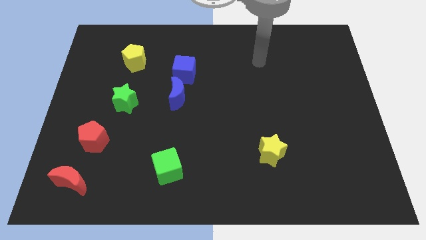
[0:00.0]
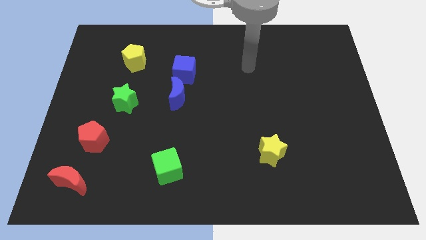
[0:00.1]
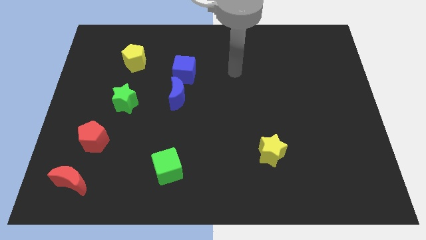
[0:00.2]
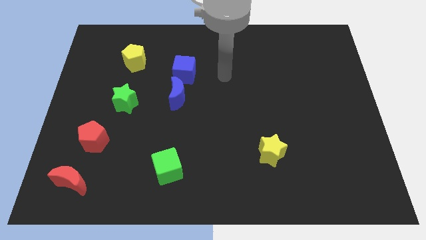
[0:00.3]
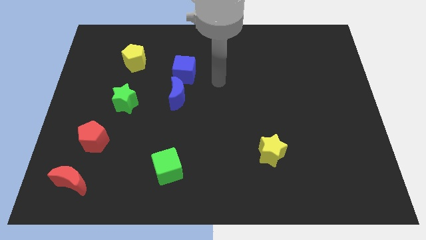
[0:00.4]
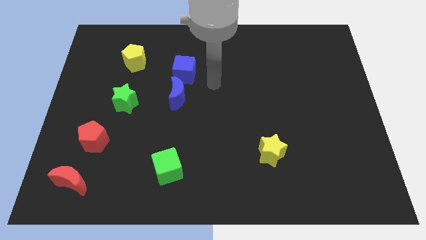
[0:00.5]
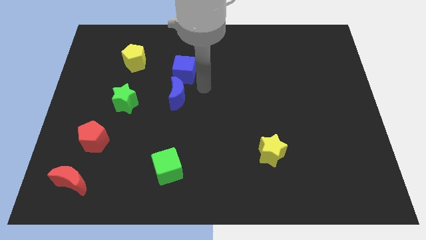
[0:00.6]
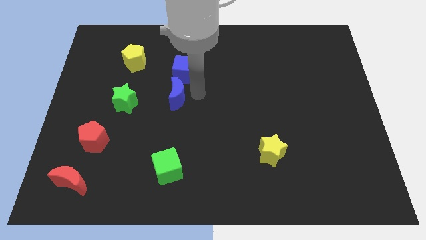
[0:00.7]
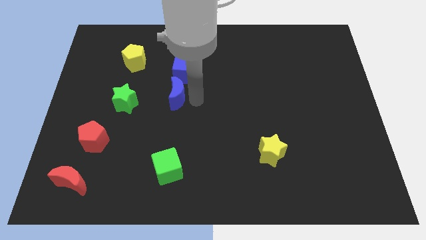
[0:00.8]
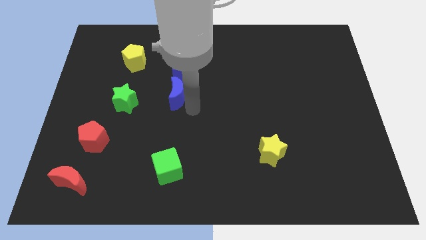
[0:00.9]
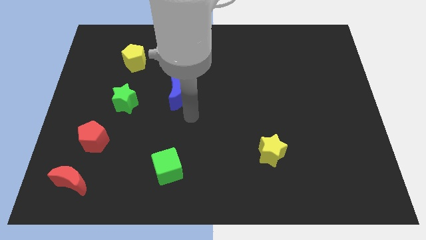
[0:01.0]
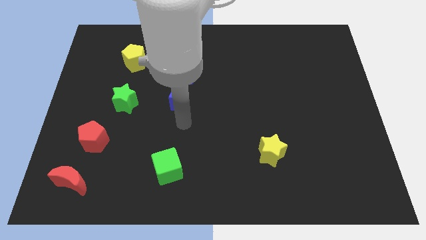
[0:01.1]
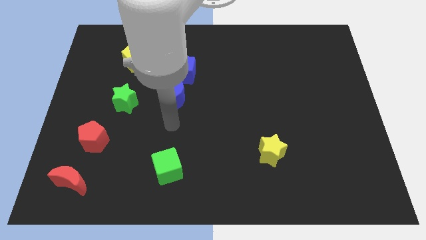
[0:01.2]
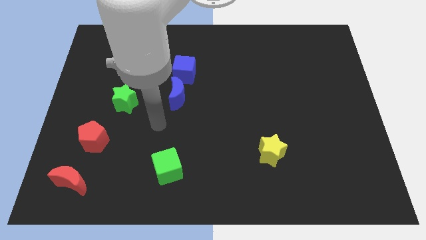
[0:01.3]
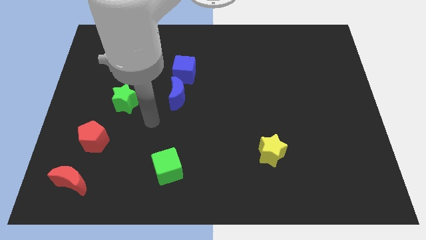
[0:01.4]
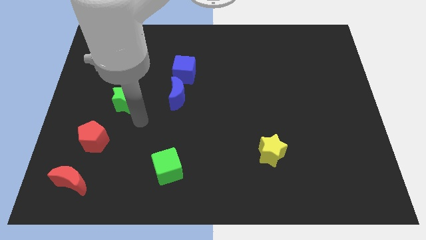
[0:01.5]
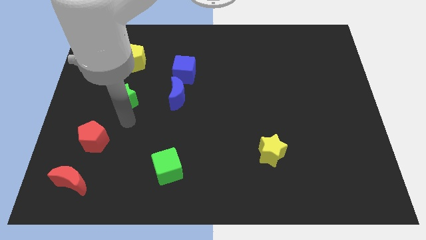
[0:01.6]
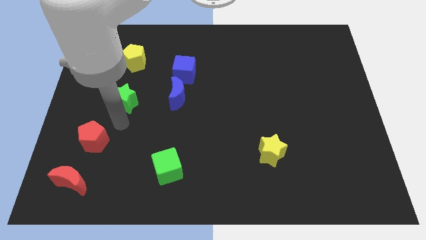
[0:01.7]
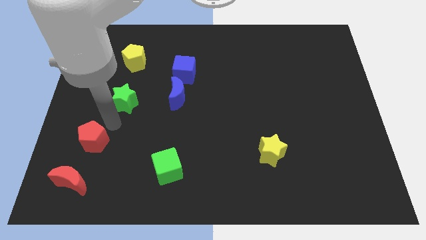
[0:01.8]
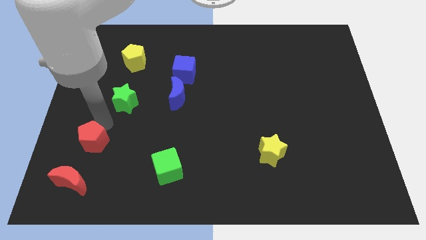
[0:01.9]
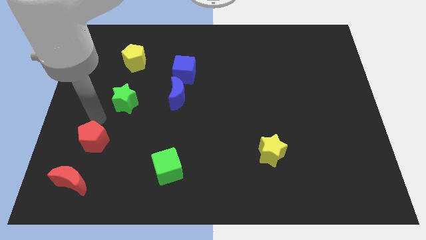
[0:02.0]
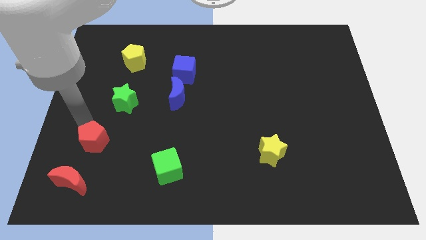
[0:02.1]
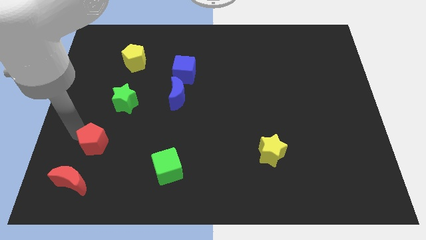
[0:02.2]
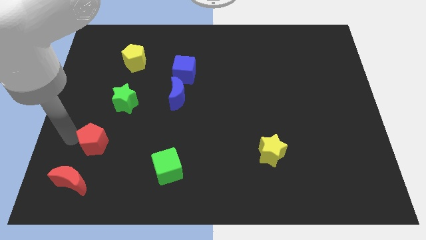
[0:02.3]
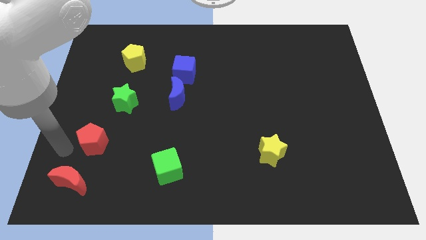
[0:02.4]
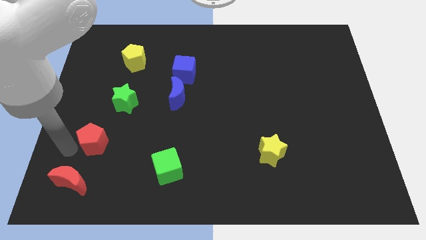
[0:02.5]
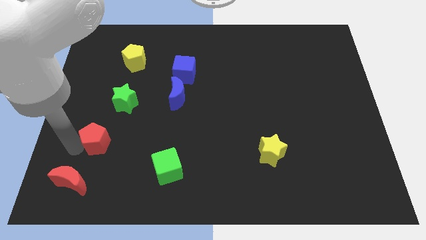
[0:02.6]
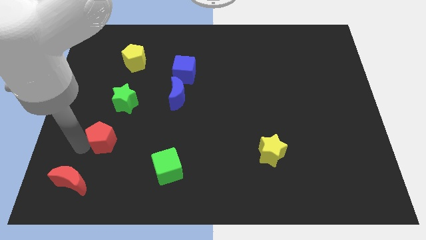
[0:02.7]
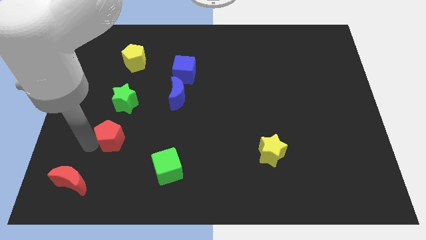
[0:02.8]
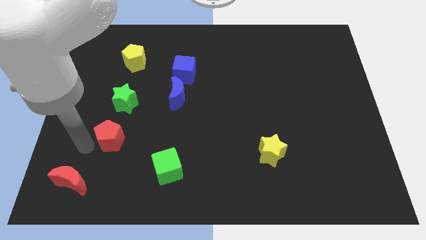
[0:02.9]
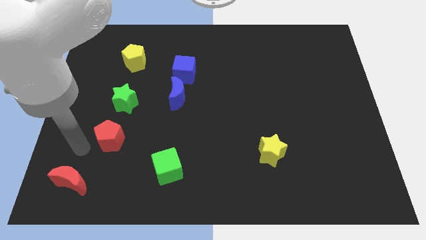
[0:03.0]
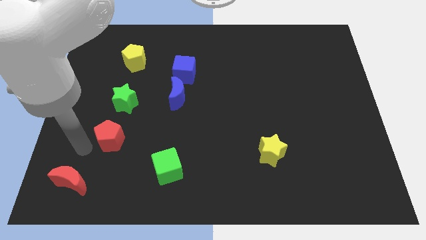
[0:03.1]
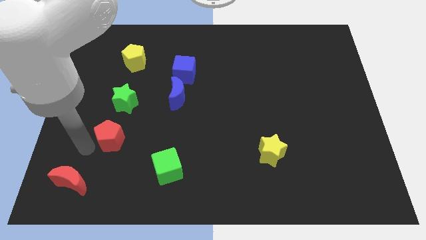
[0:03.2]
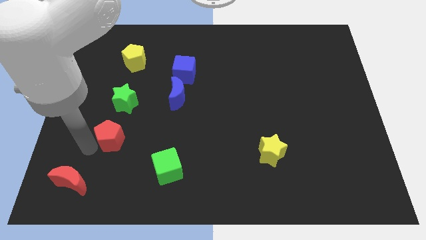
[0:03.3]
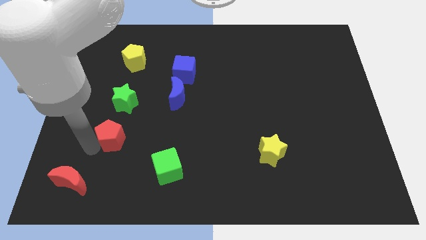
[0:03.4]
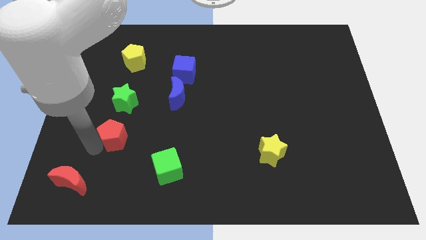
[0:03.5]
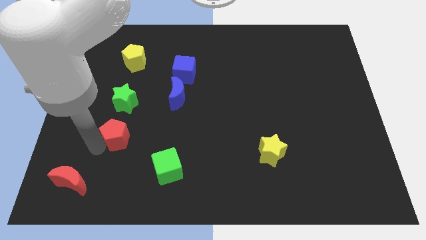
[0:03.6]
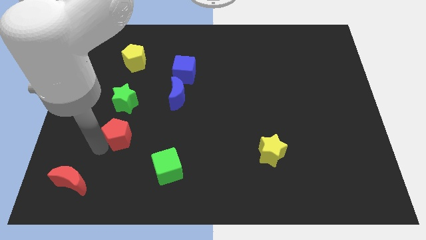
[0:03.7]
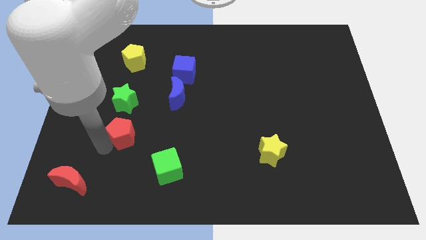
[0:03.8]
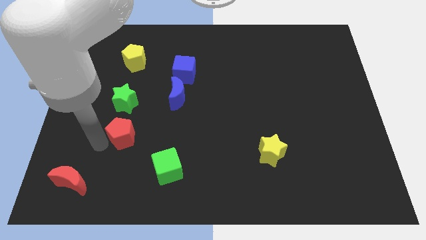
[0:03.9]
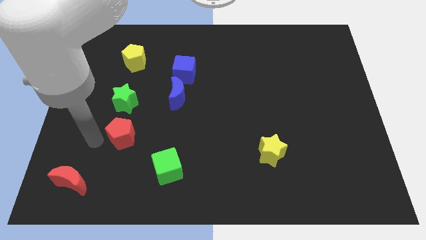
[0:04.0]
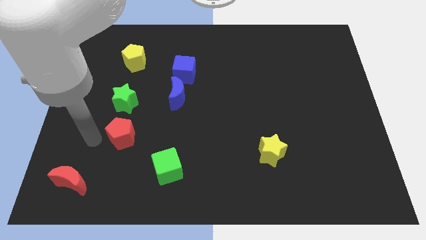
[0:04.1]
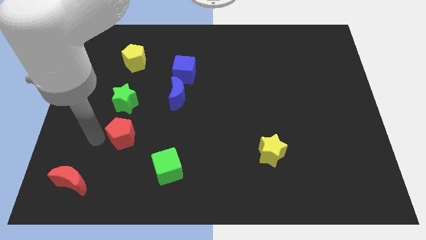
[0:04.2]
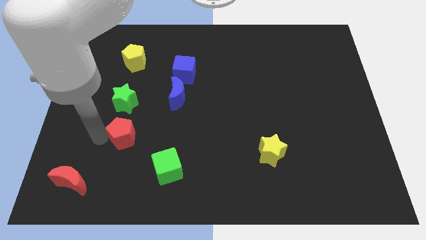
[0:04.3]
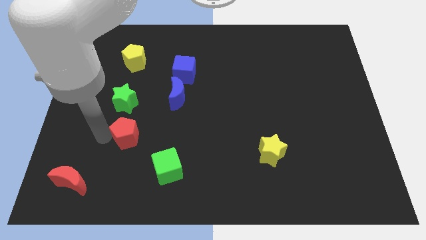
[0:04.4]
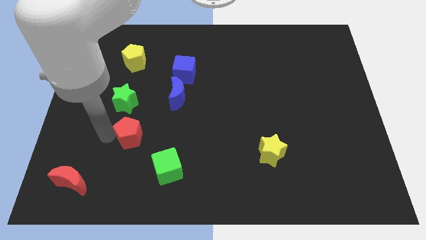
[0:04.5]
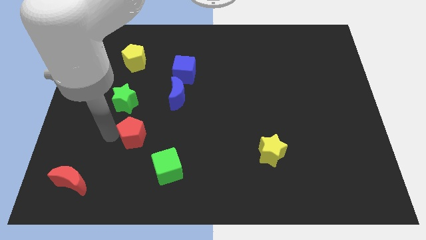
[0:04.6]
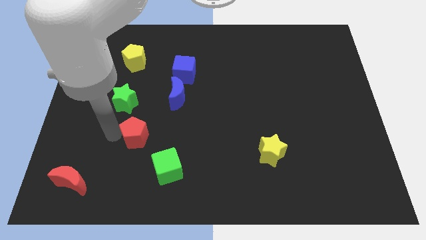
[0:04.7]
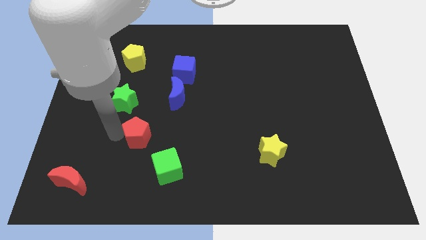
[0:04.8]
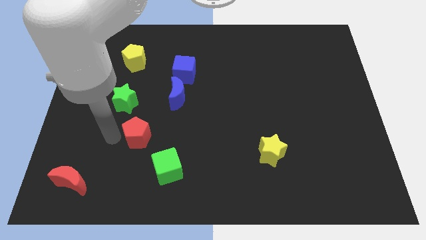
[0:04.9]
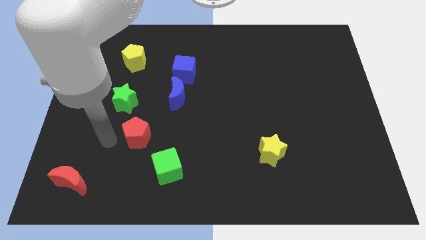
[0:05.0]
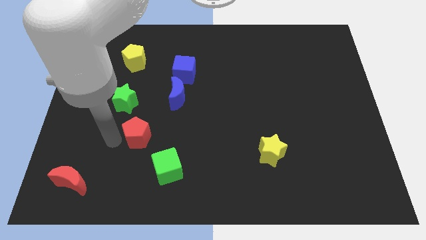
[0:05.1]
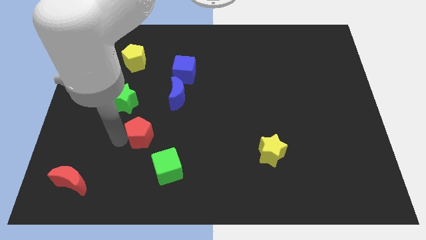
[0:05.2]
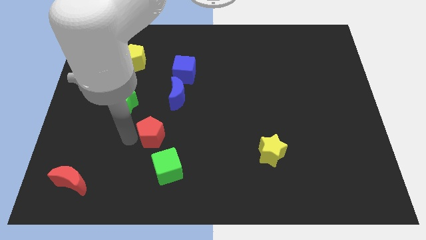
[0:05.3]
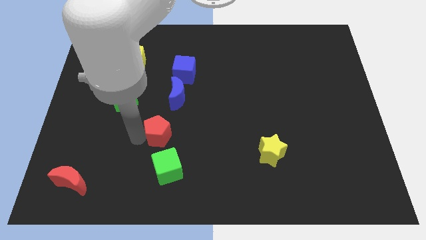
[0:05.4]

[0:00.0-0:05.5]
push the red pentagon to the bottom side of the blue moon

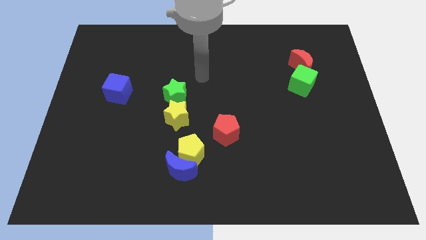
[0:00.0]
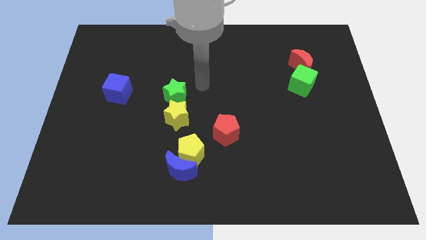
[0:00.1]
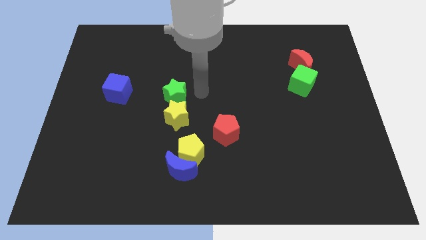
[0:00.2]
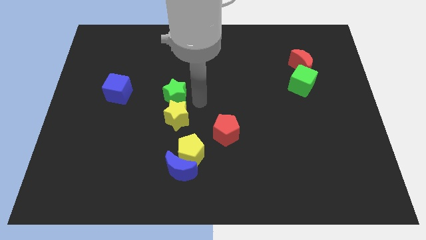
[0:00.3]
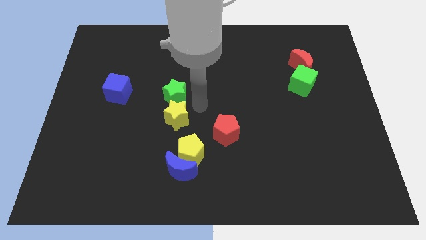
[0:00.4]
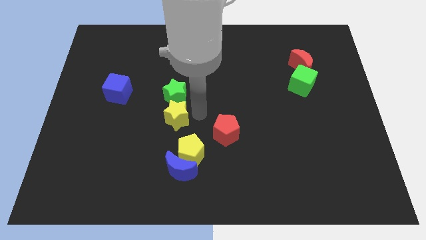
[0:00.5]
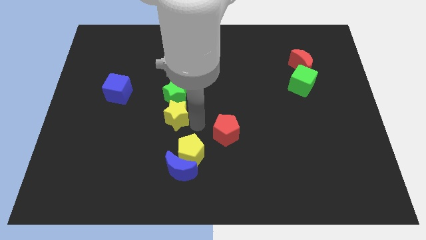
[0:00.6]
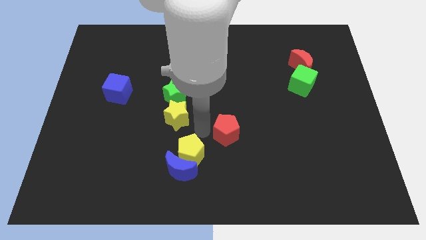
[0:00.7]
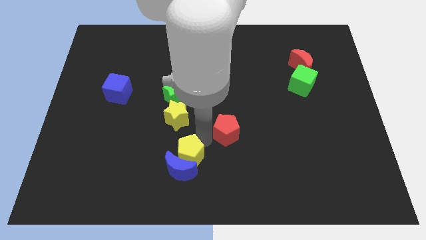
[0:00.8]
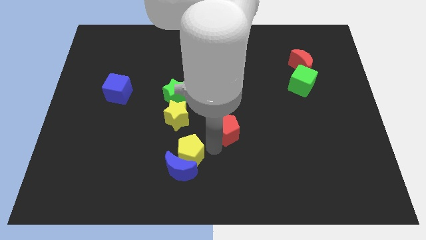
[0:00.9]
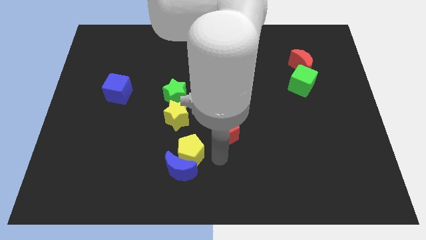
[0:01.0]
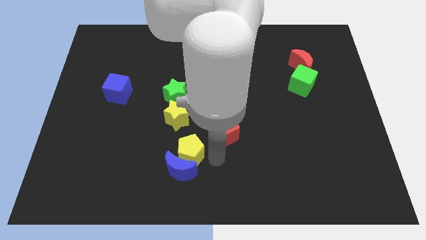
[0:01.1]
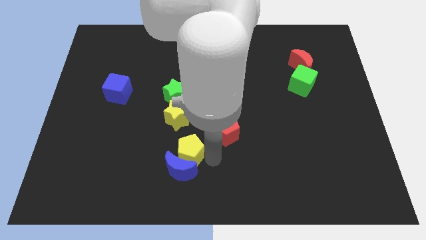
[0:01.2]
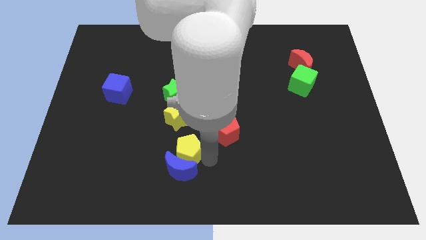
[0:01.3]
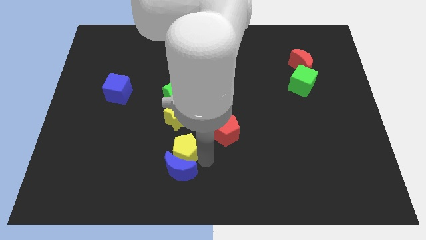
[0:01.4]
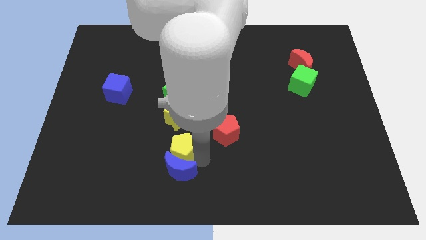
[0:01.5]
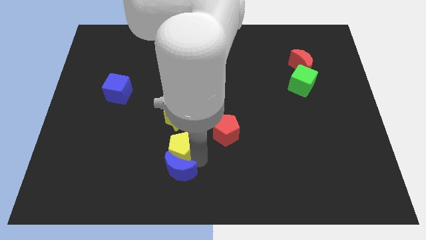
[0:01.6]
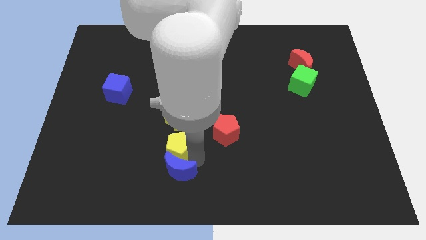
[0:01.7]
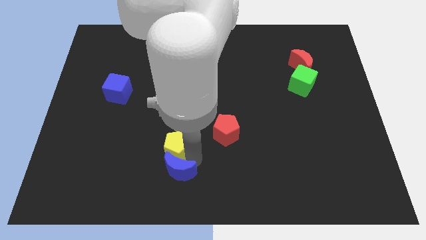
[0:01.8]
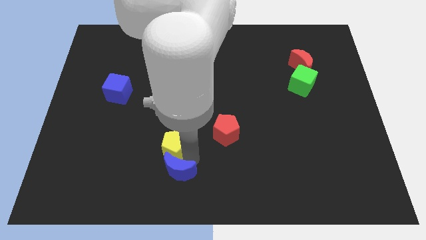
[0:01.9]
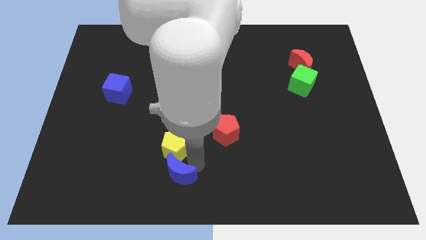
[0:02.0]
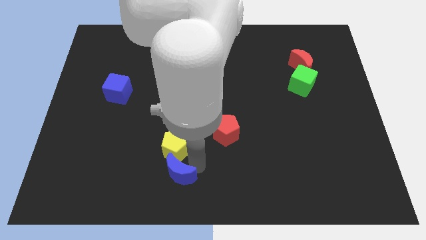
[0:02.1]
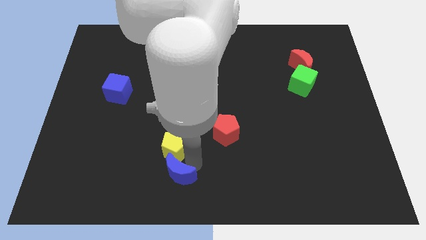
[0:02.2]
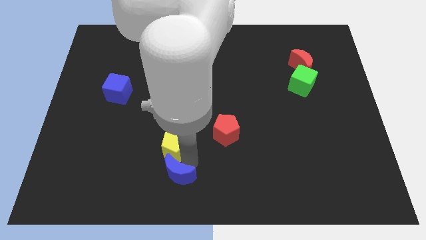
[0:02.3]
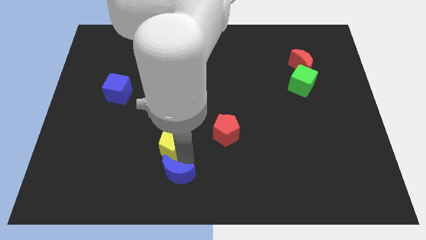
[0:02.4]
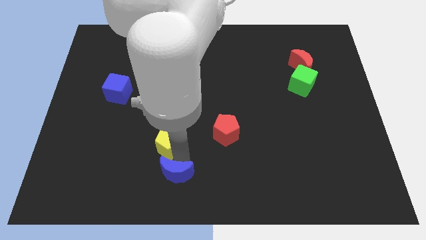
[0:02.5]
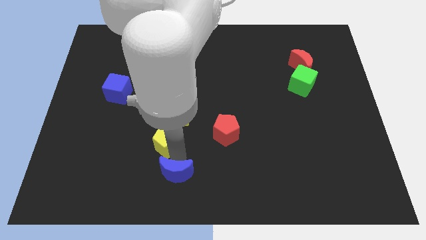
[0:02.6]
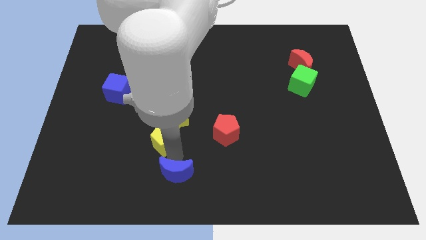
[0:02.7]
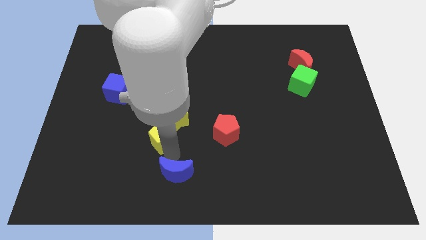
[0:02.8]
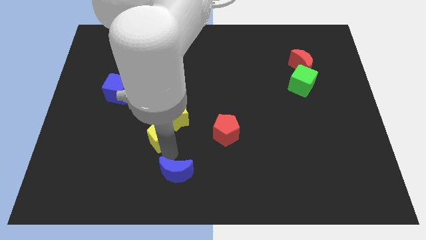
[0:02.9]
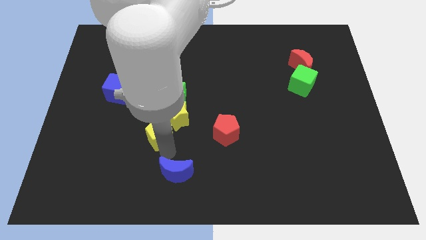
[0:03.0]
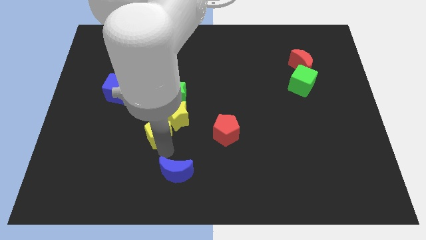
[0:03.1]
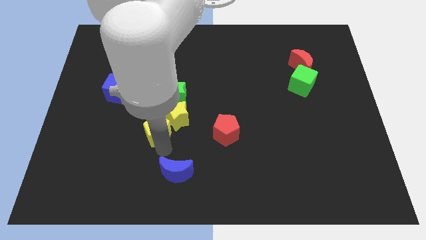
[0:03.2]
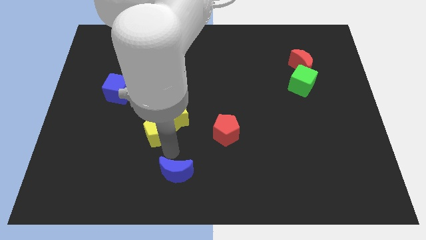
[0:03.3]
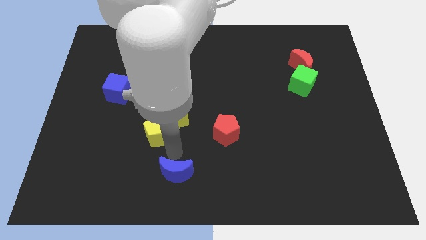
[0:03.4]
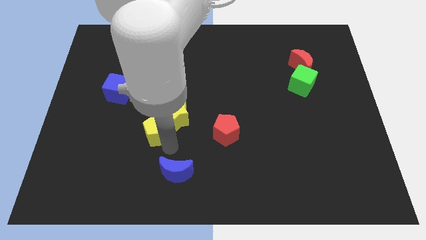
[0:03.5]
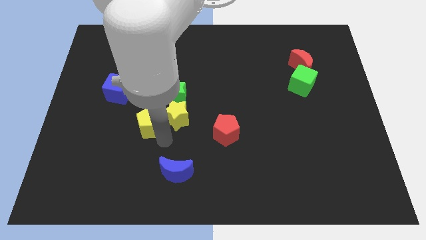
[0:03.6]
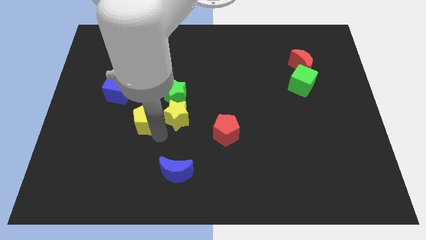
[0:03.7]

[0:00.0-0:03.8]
push the yellow pentagon diagonally down and to the right of the blue cube
